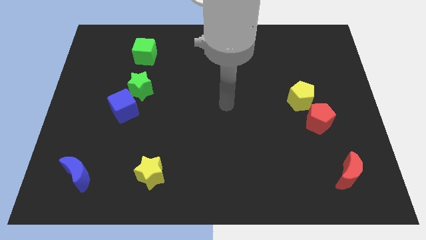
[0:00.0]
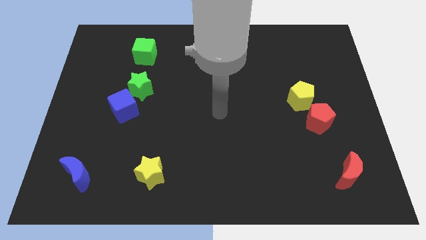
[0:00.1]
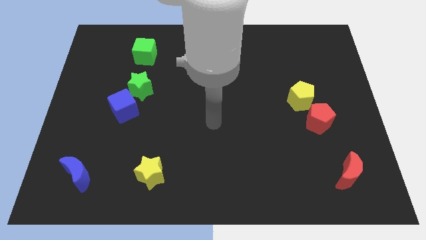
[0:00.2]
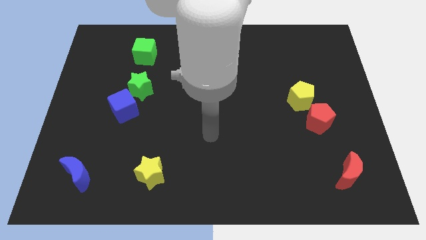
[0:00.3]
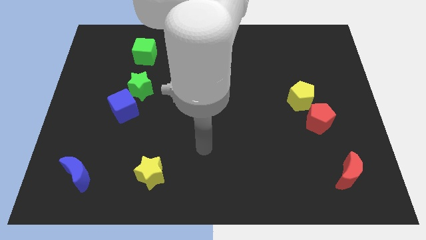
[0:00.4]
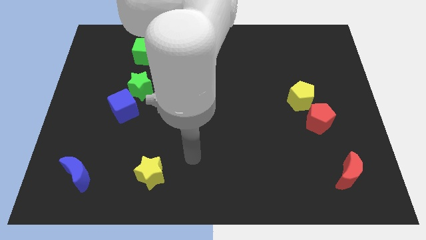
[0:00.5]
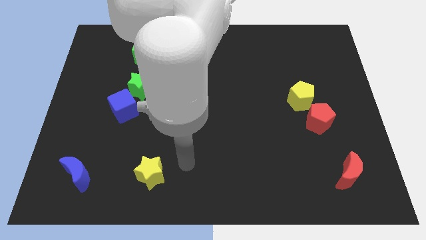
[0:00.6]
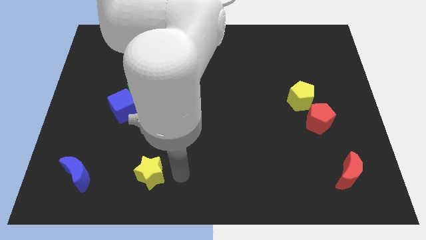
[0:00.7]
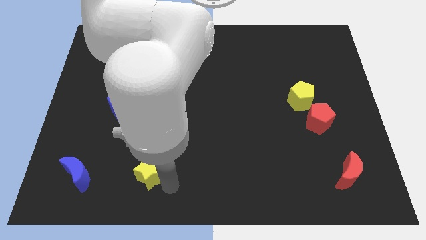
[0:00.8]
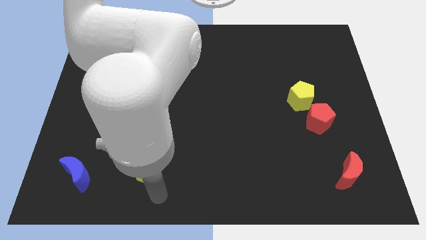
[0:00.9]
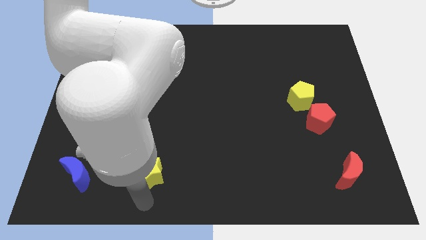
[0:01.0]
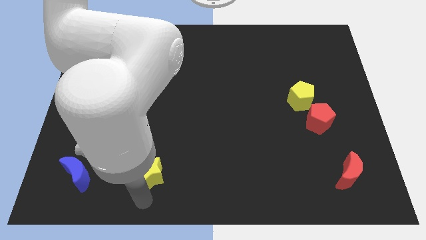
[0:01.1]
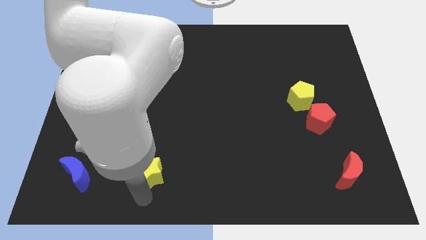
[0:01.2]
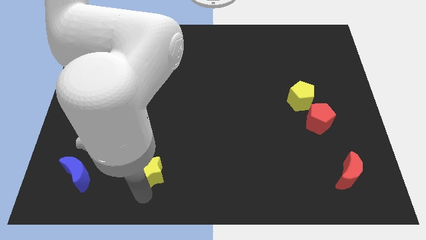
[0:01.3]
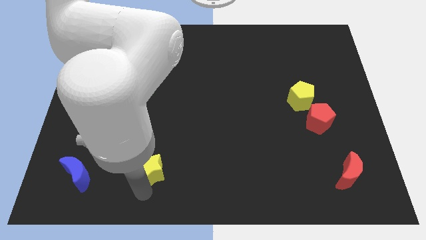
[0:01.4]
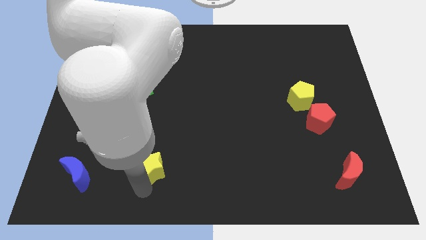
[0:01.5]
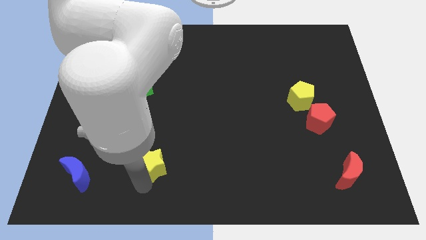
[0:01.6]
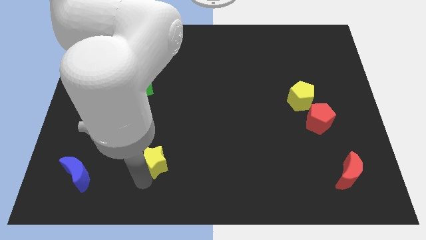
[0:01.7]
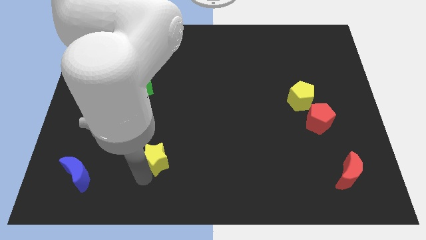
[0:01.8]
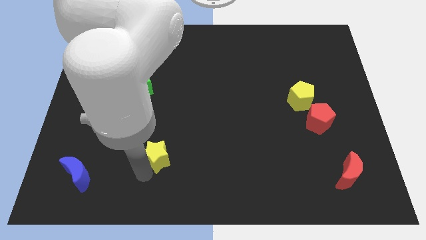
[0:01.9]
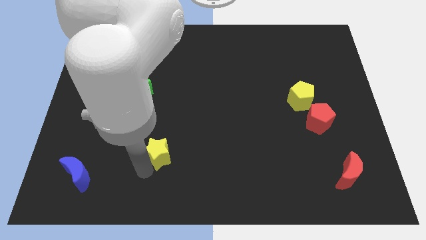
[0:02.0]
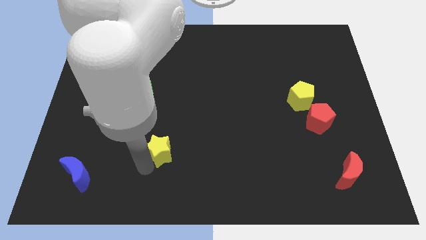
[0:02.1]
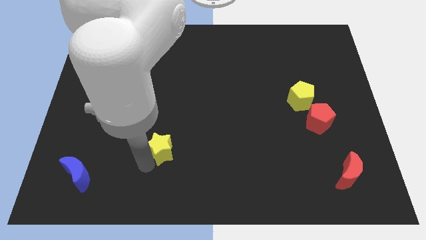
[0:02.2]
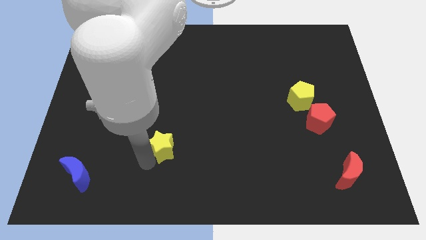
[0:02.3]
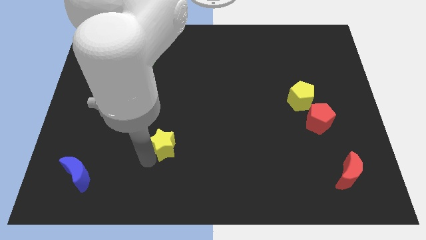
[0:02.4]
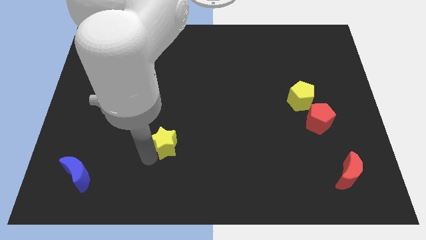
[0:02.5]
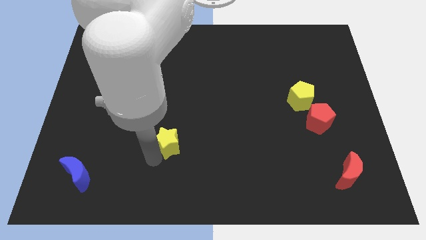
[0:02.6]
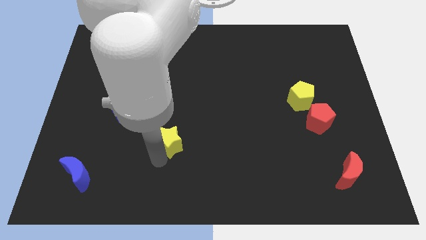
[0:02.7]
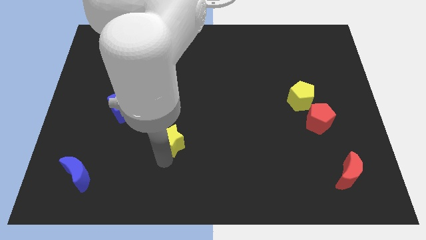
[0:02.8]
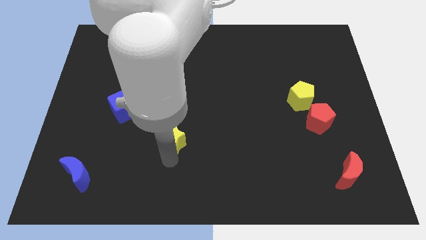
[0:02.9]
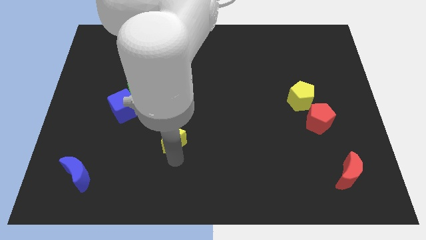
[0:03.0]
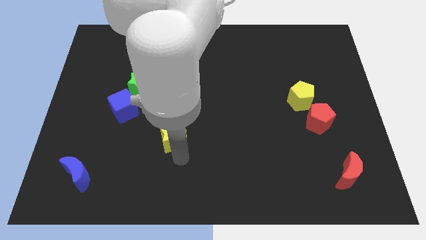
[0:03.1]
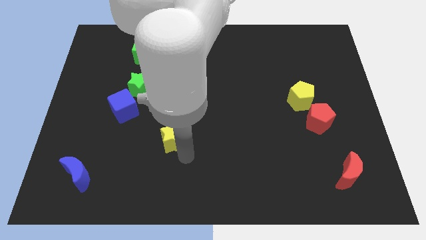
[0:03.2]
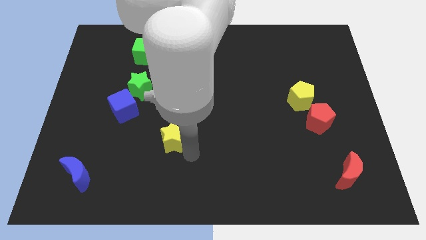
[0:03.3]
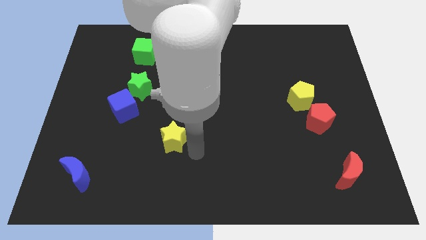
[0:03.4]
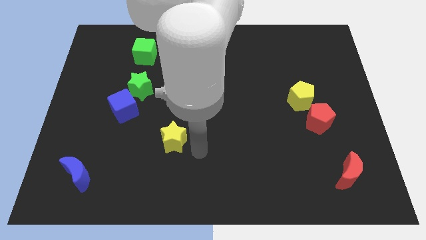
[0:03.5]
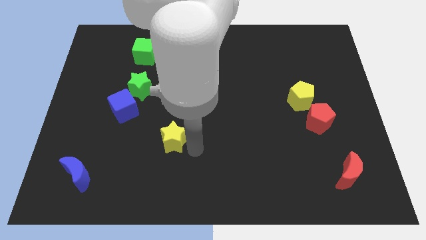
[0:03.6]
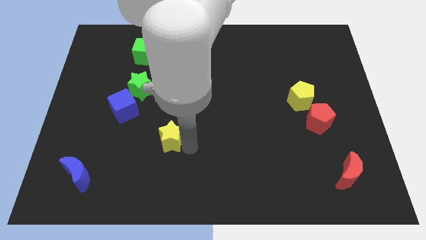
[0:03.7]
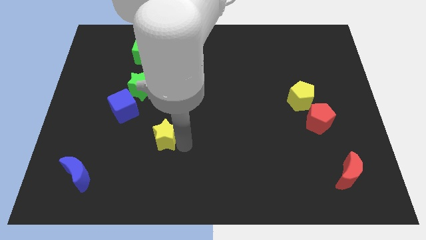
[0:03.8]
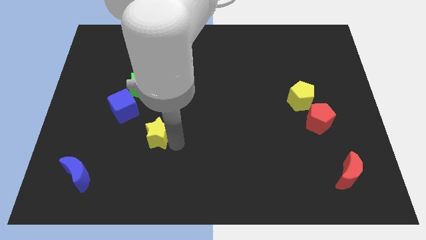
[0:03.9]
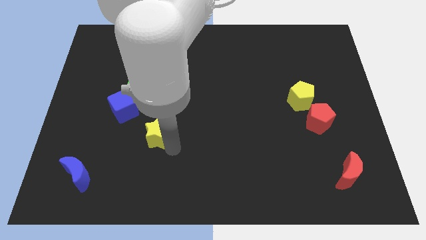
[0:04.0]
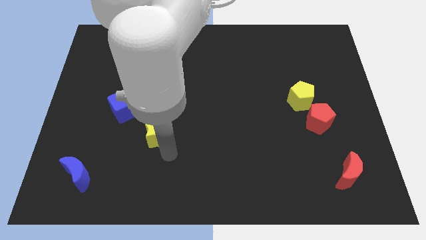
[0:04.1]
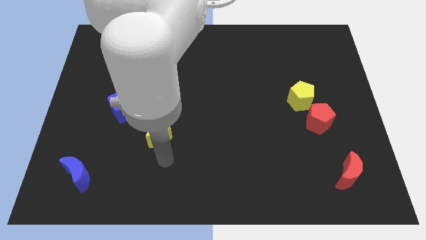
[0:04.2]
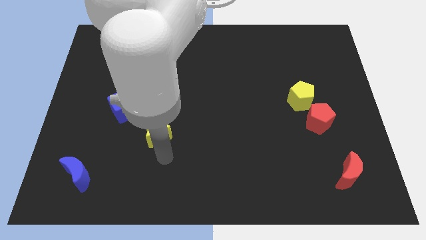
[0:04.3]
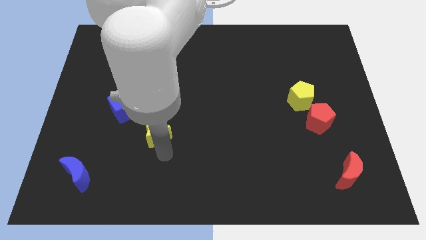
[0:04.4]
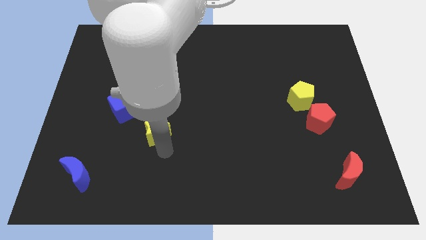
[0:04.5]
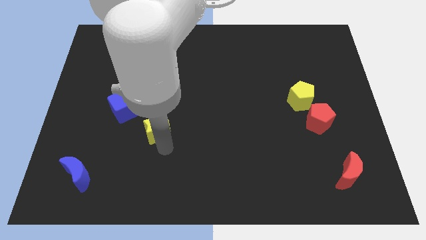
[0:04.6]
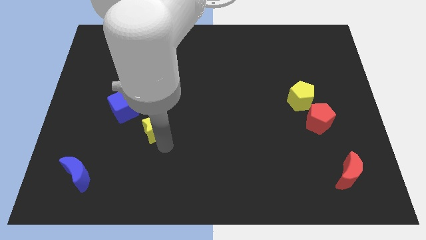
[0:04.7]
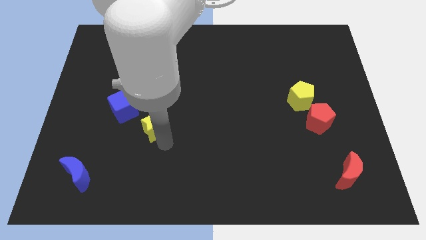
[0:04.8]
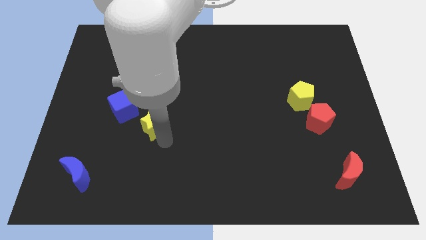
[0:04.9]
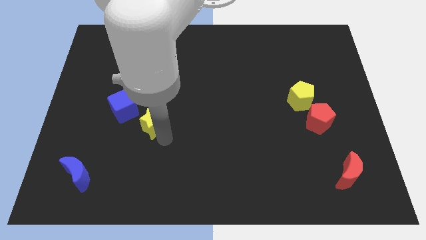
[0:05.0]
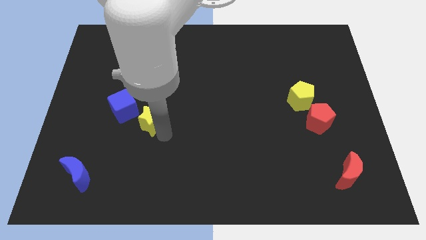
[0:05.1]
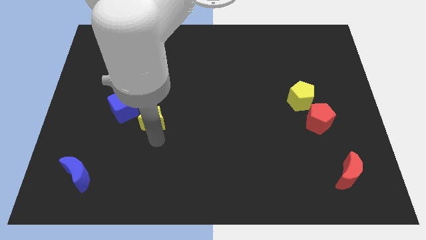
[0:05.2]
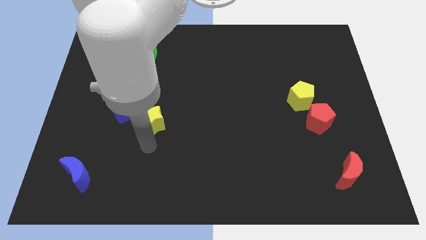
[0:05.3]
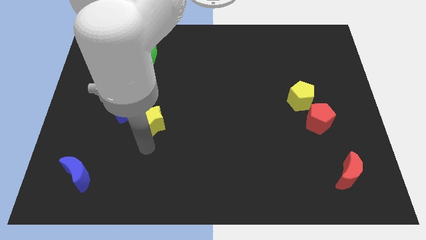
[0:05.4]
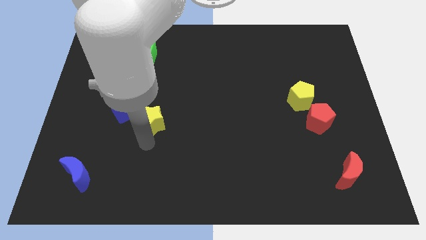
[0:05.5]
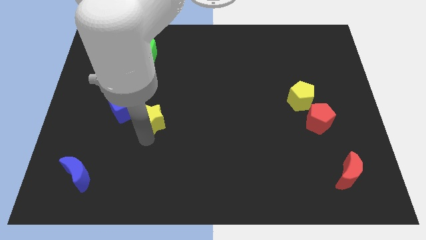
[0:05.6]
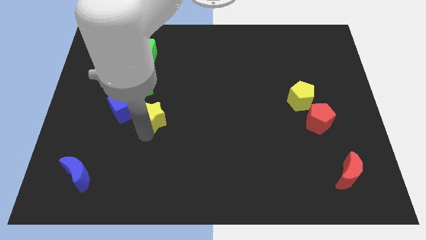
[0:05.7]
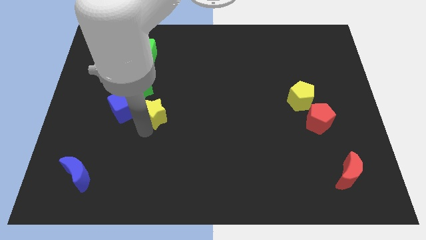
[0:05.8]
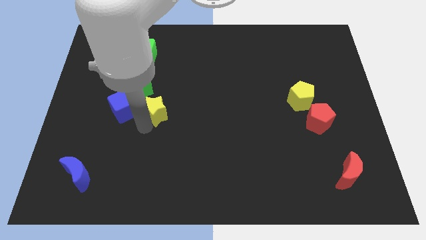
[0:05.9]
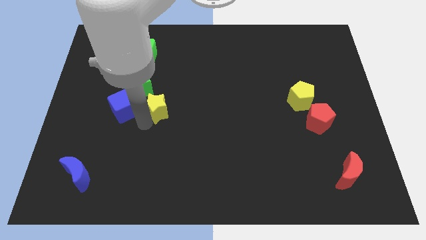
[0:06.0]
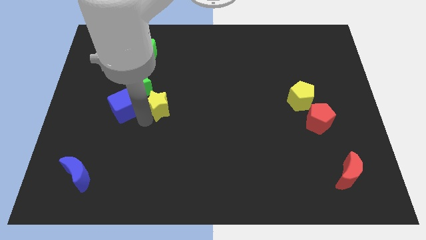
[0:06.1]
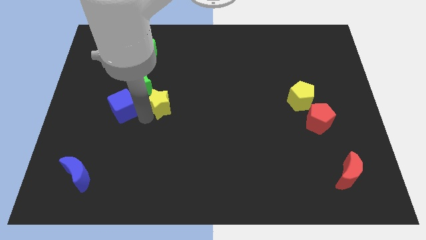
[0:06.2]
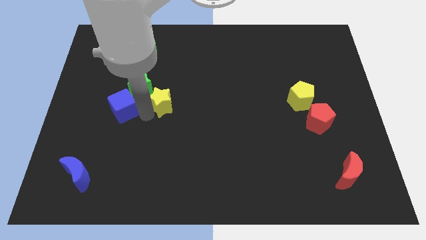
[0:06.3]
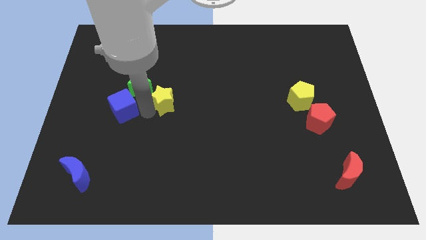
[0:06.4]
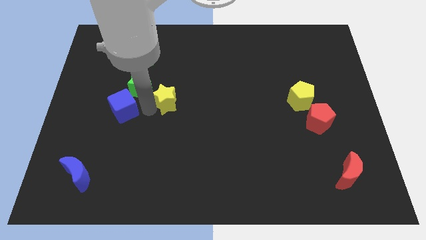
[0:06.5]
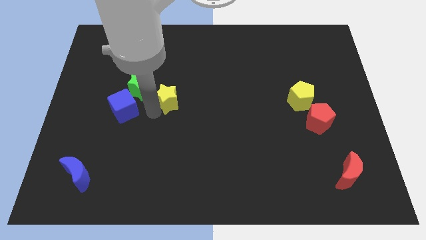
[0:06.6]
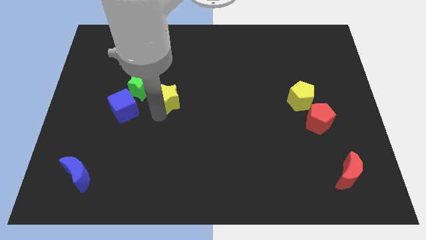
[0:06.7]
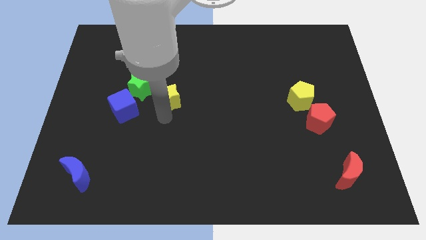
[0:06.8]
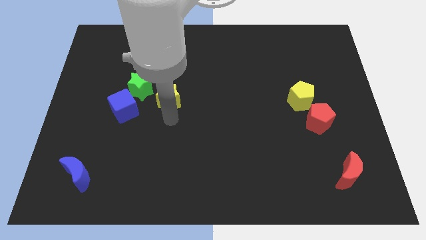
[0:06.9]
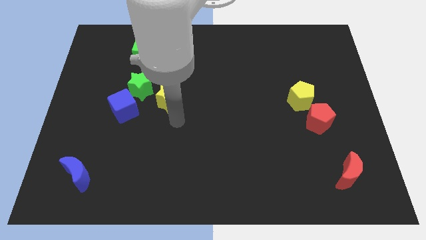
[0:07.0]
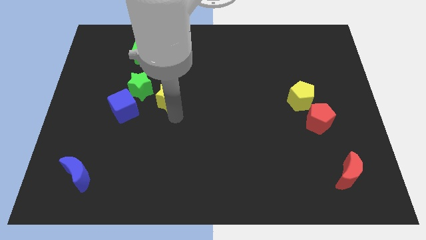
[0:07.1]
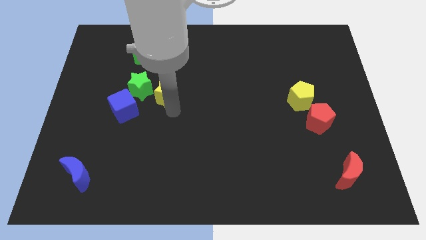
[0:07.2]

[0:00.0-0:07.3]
move the yellow star upwards

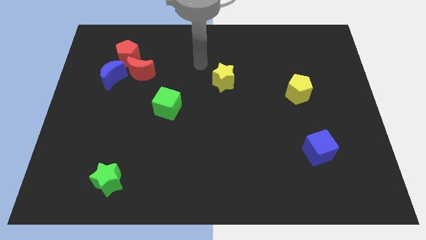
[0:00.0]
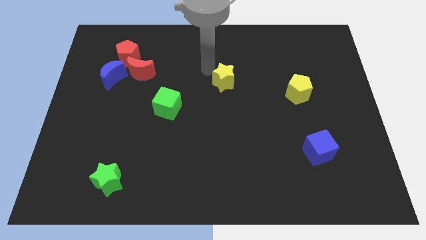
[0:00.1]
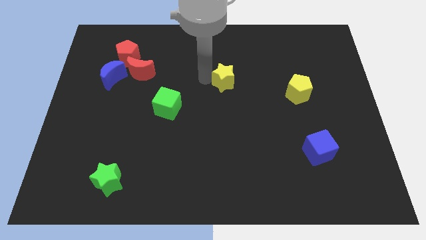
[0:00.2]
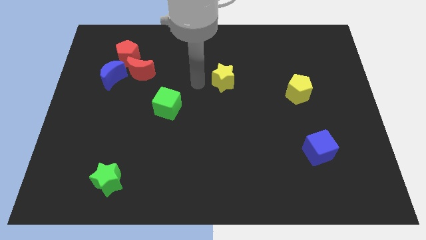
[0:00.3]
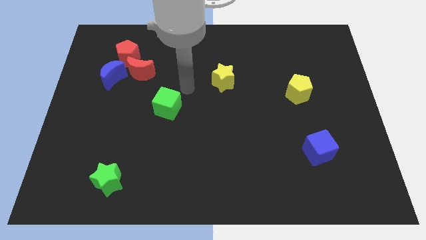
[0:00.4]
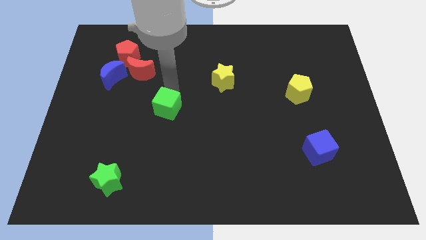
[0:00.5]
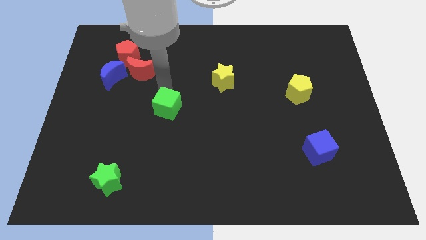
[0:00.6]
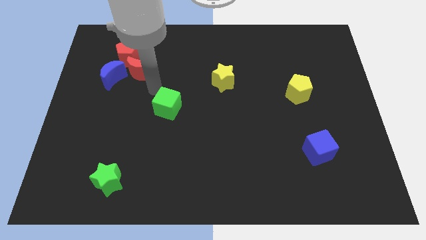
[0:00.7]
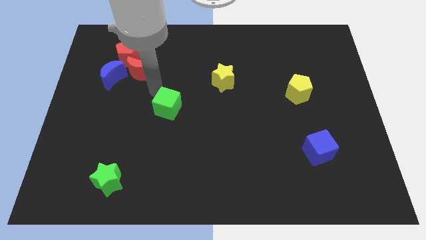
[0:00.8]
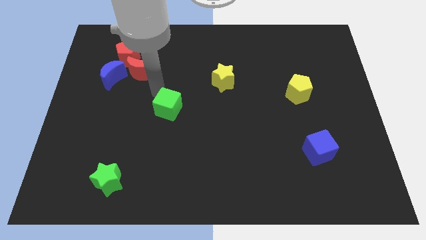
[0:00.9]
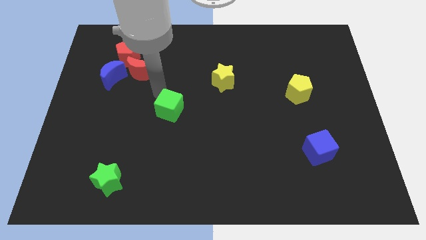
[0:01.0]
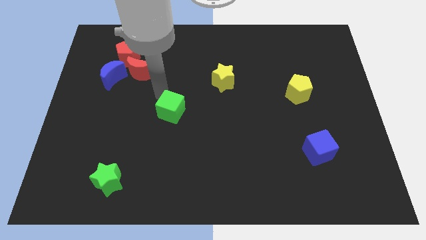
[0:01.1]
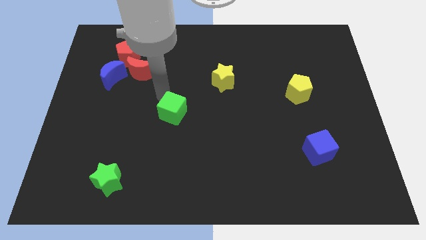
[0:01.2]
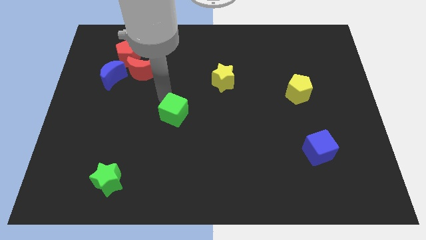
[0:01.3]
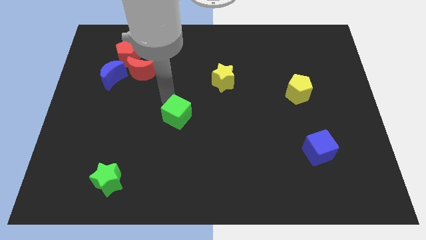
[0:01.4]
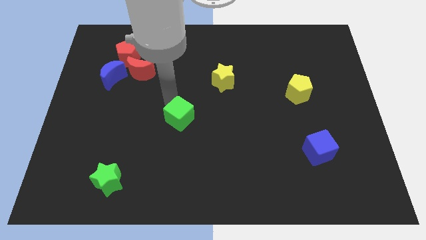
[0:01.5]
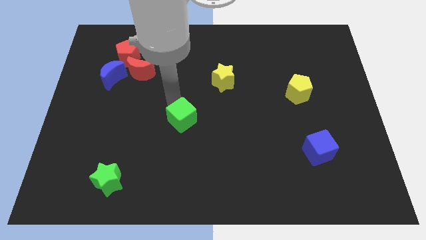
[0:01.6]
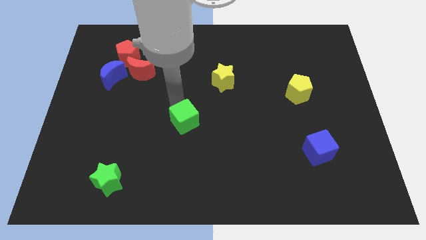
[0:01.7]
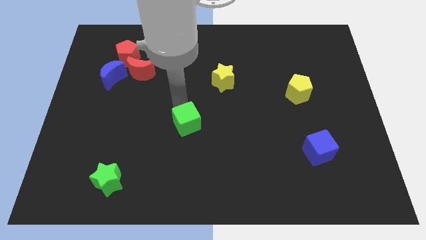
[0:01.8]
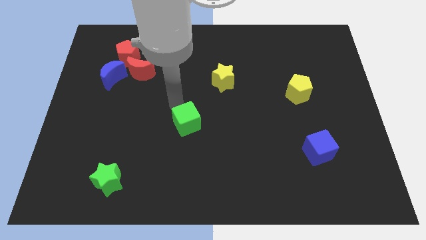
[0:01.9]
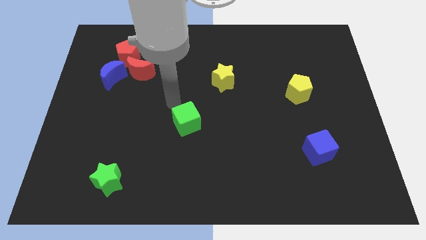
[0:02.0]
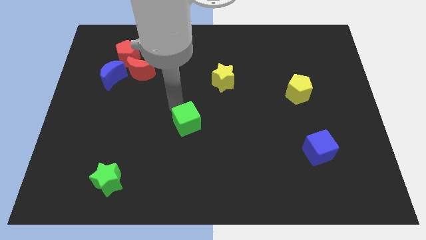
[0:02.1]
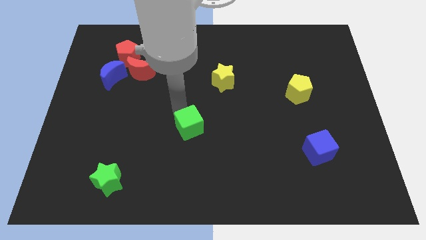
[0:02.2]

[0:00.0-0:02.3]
slide the green cube down and right diagonally a little
